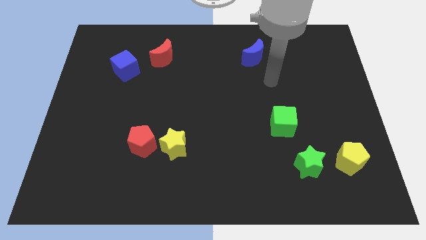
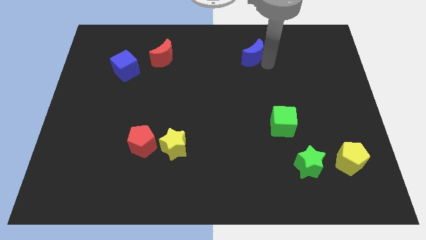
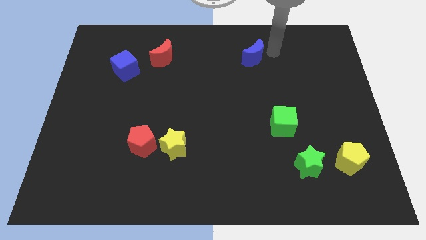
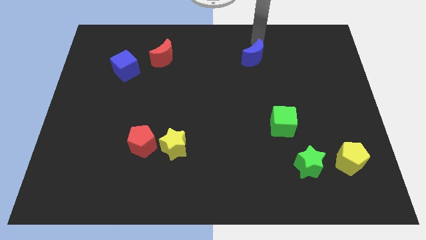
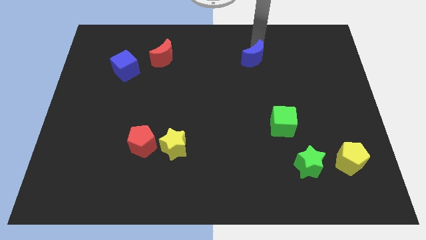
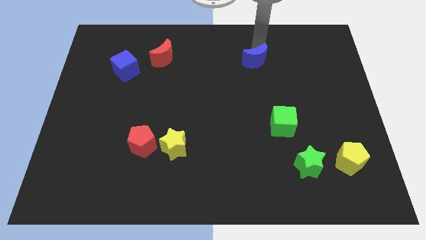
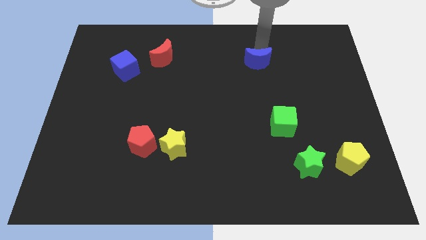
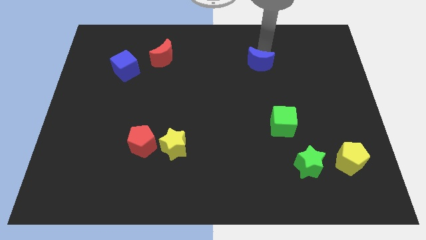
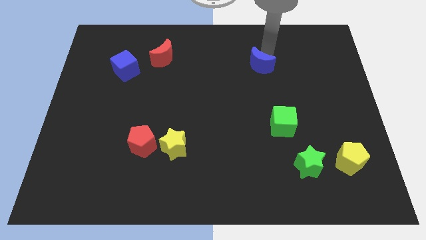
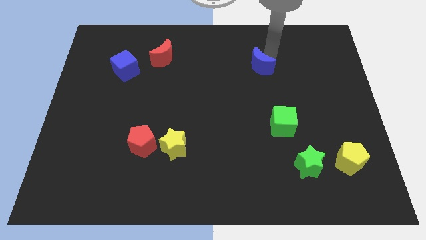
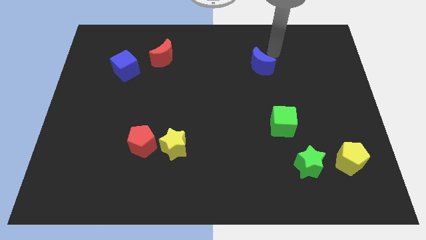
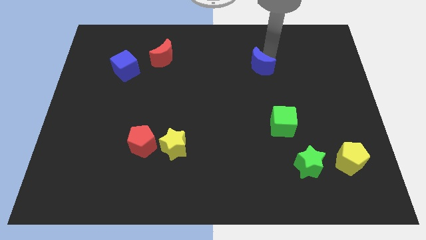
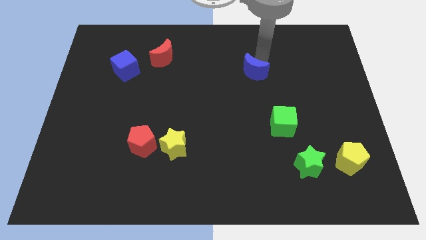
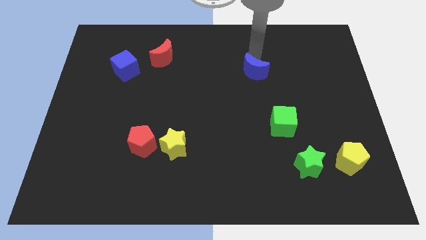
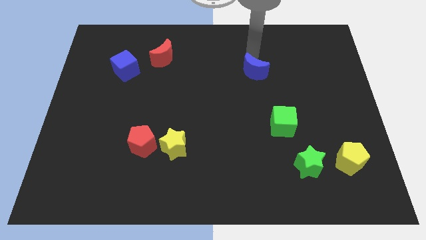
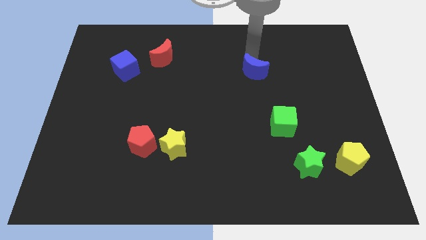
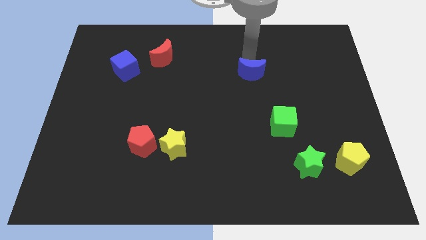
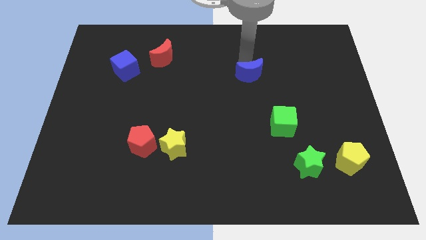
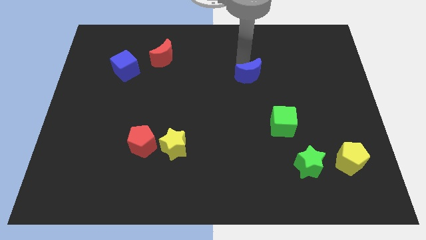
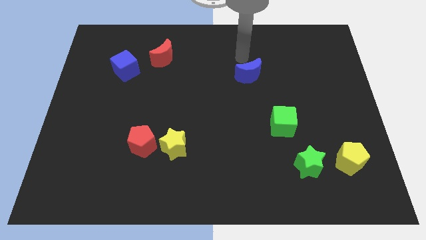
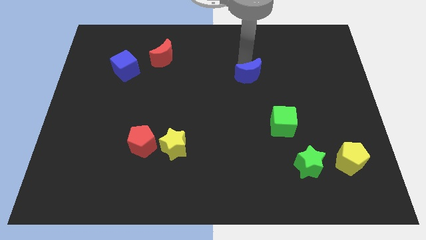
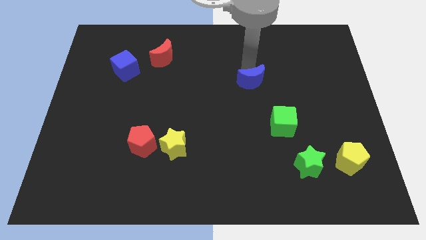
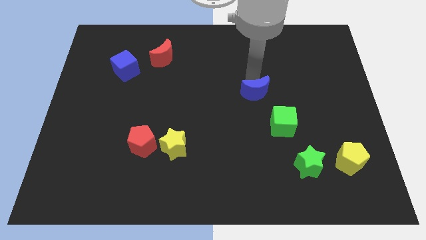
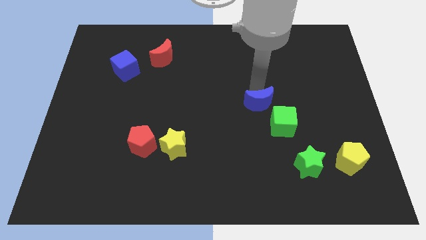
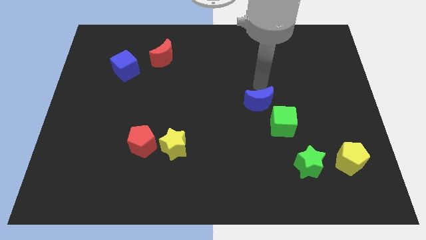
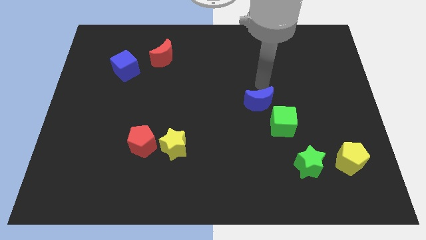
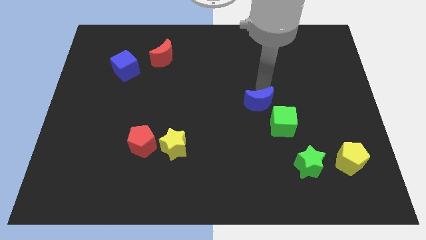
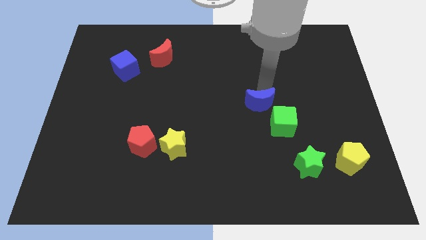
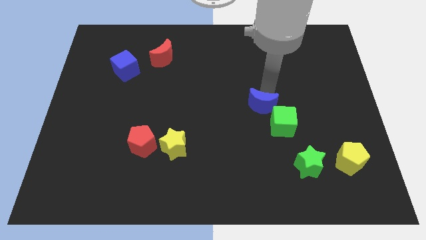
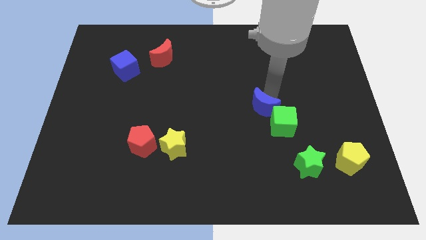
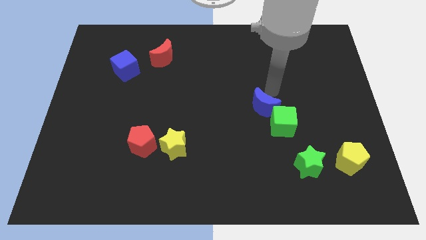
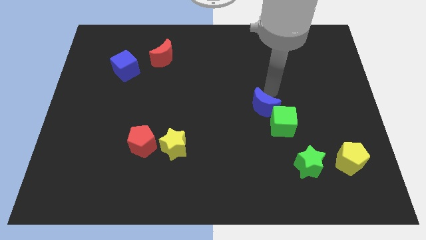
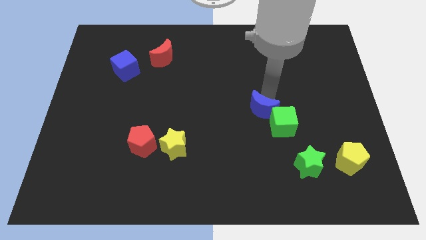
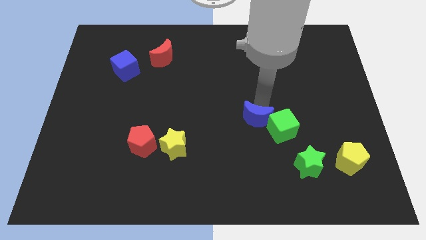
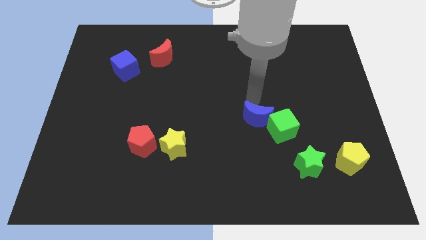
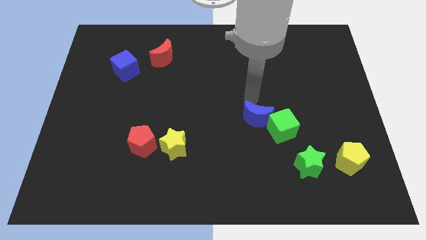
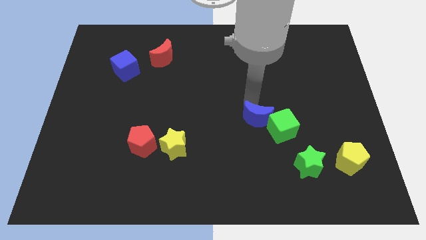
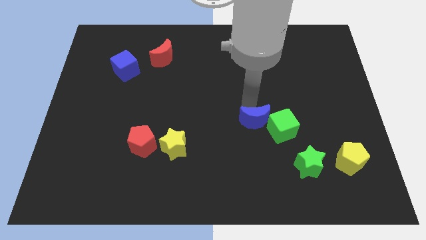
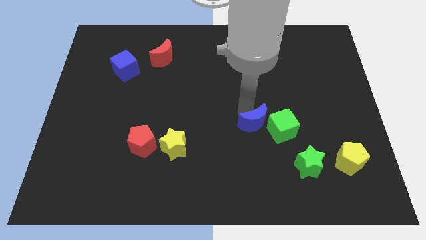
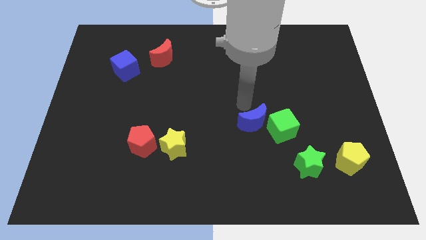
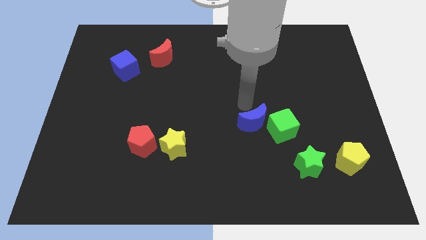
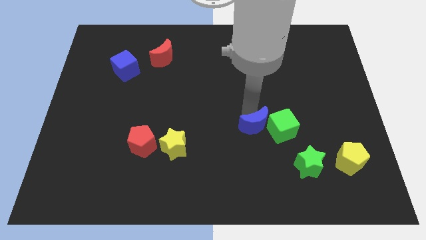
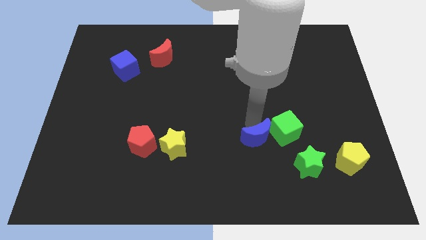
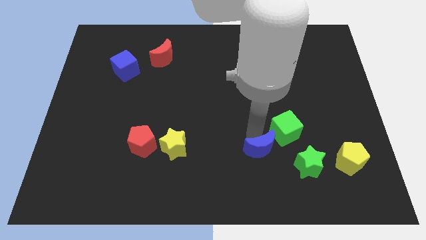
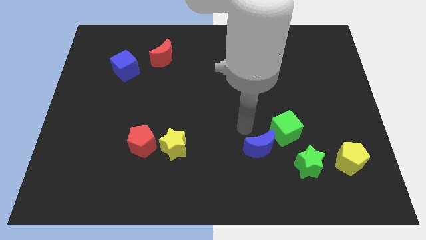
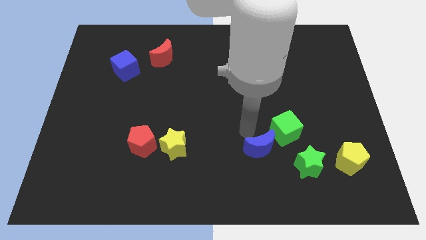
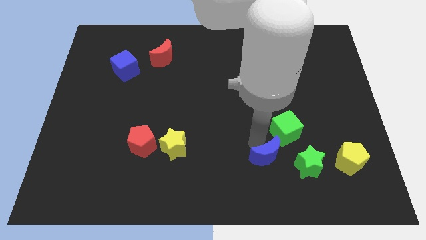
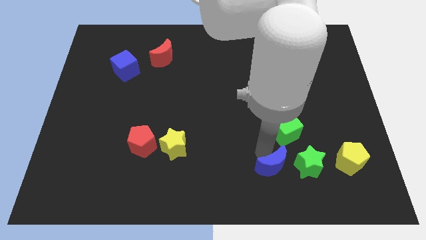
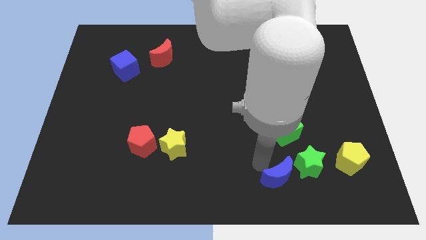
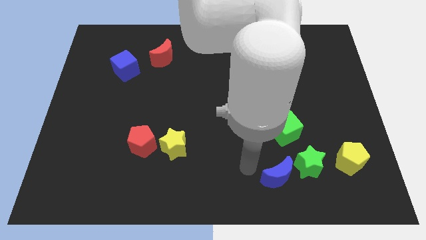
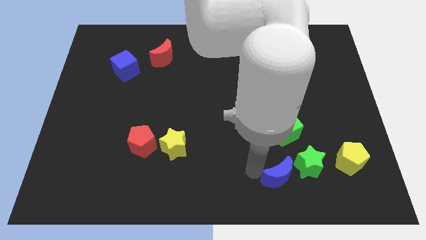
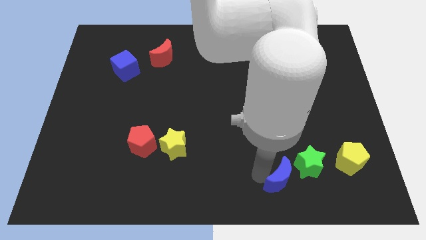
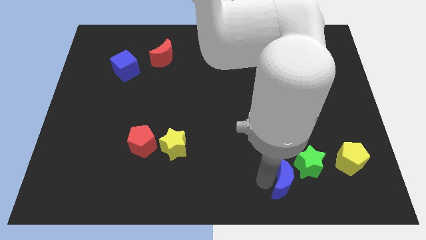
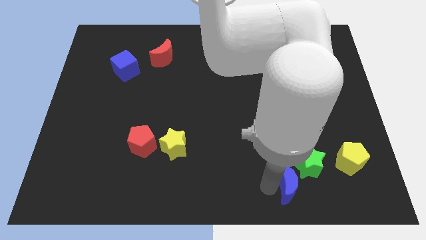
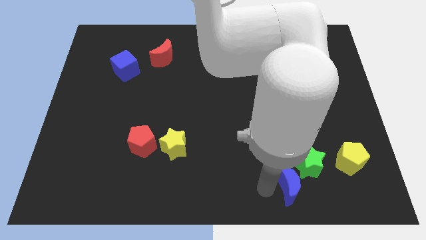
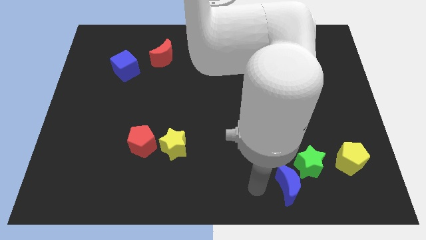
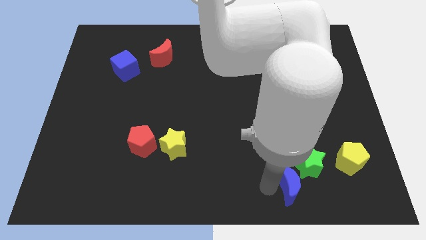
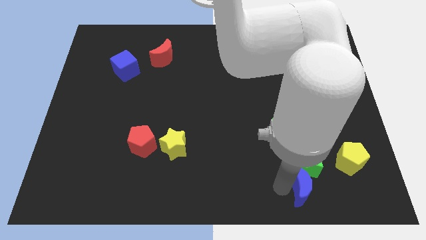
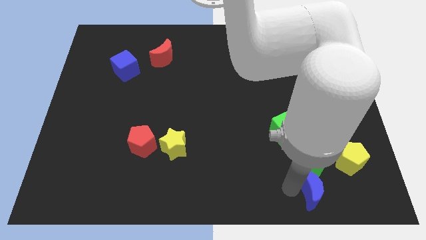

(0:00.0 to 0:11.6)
move the blue moon diagonally down and to the left of the yellow pentagon
